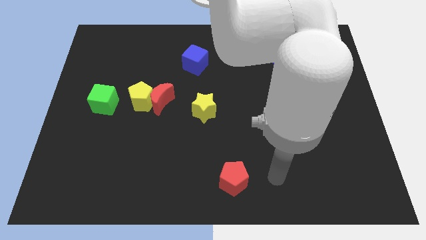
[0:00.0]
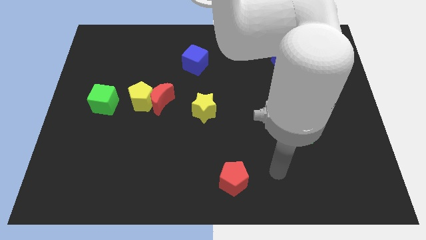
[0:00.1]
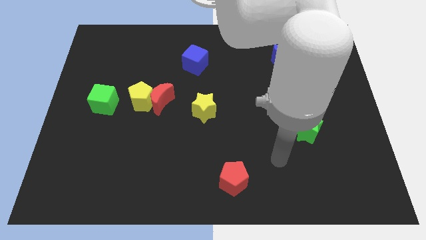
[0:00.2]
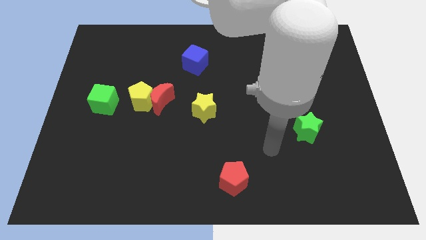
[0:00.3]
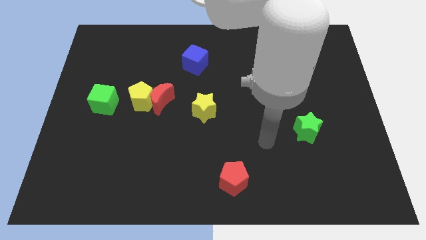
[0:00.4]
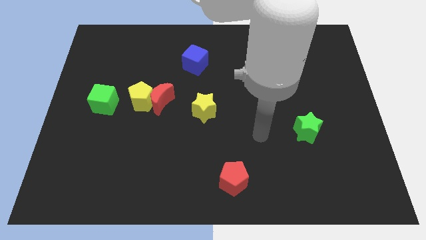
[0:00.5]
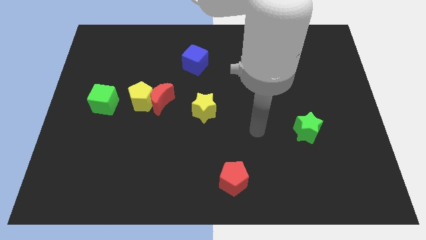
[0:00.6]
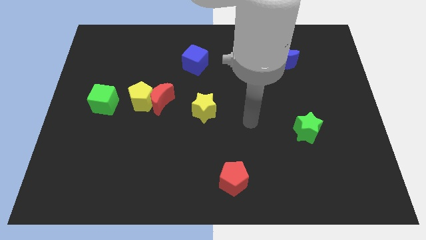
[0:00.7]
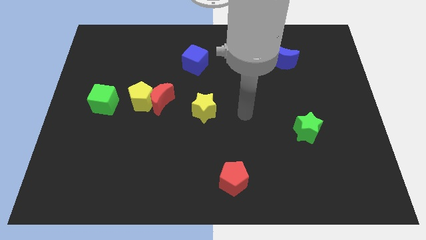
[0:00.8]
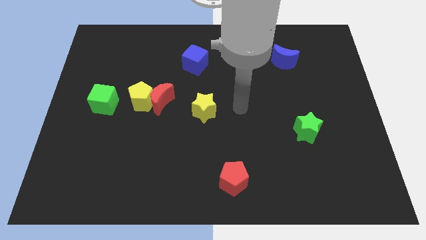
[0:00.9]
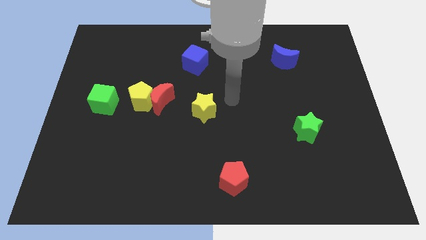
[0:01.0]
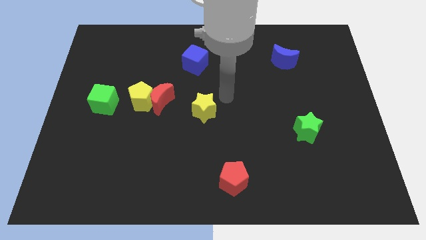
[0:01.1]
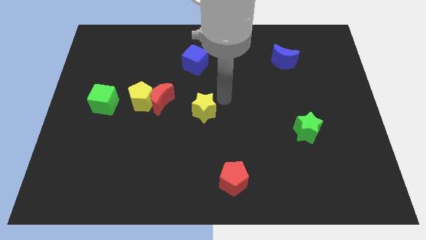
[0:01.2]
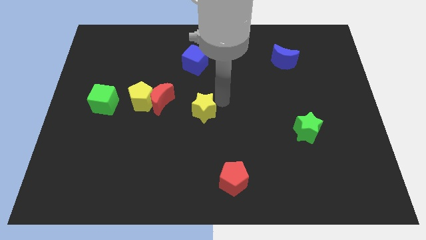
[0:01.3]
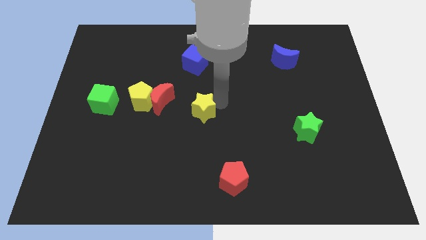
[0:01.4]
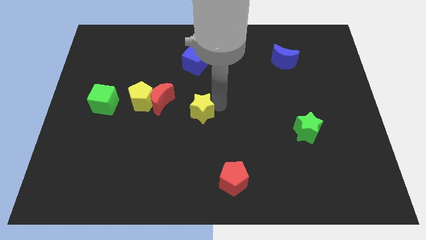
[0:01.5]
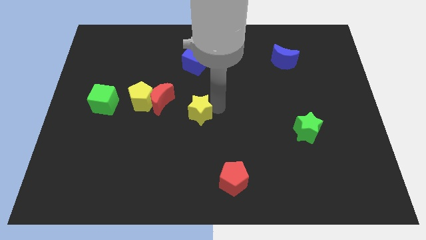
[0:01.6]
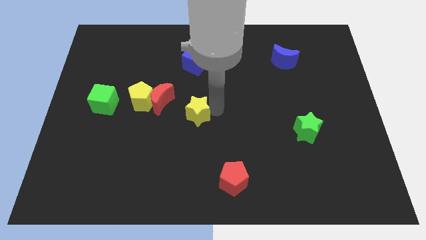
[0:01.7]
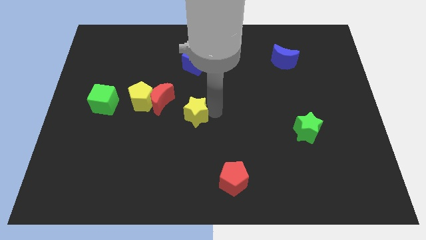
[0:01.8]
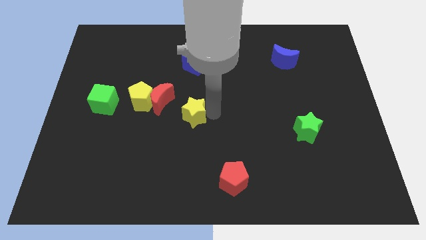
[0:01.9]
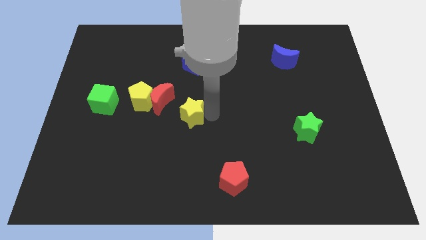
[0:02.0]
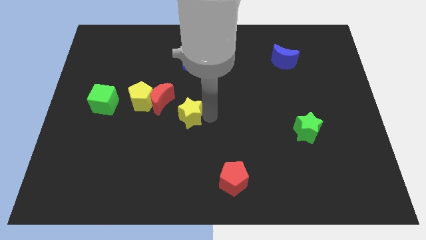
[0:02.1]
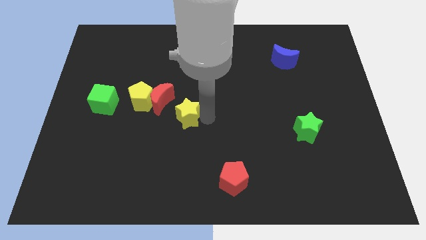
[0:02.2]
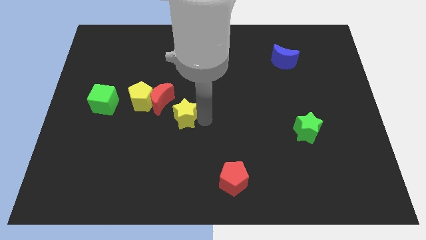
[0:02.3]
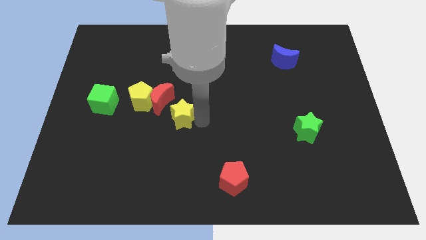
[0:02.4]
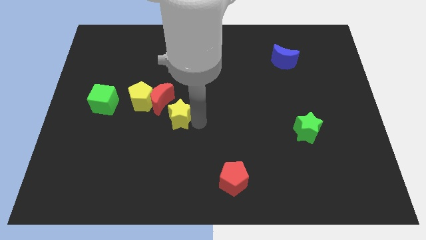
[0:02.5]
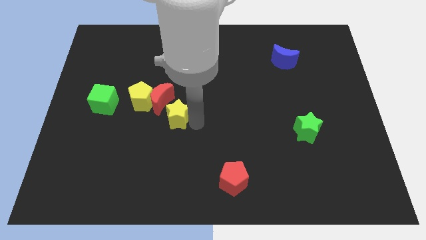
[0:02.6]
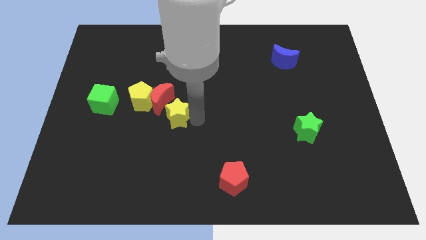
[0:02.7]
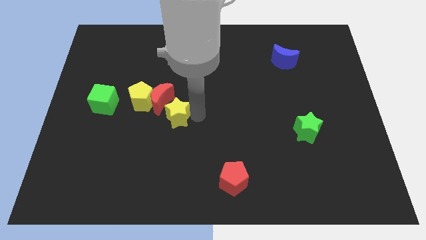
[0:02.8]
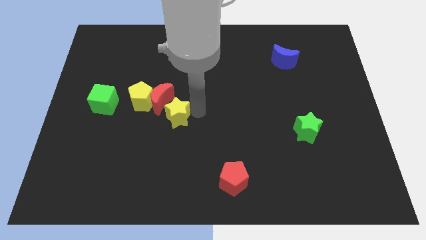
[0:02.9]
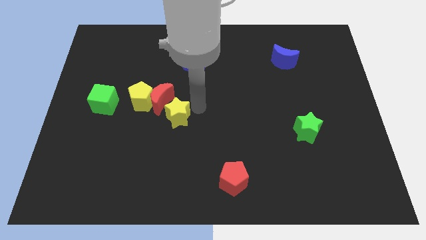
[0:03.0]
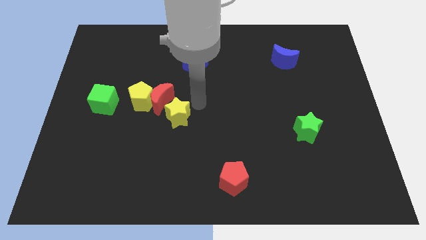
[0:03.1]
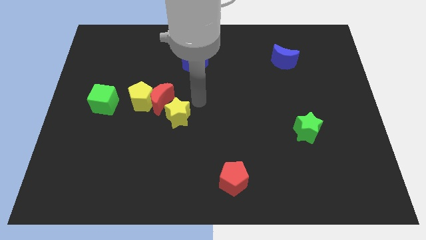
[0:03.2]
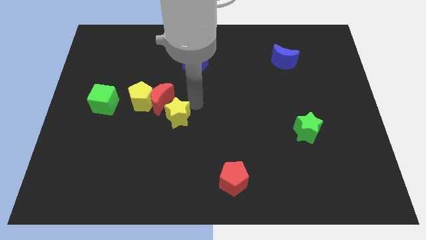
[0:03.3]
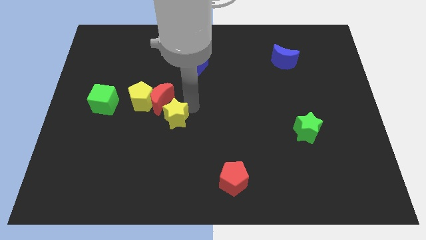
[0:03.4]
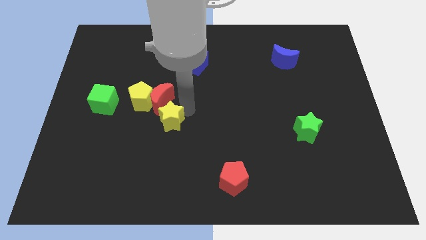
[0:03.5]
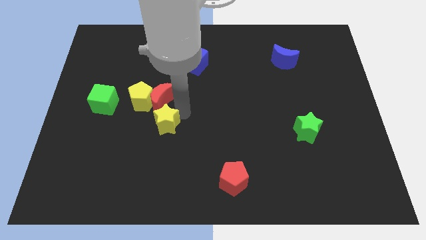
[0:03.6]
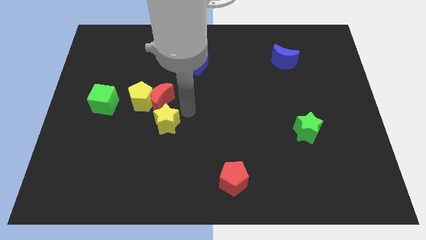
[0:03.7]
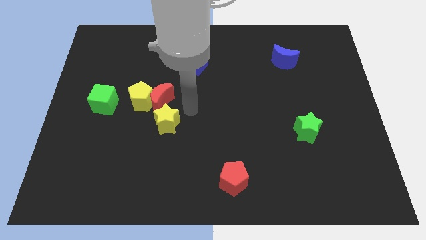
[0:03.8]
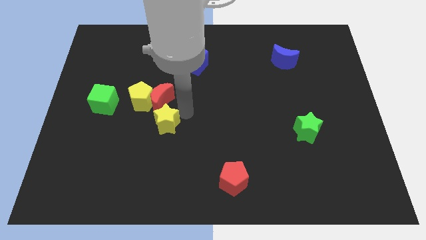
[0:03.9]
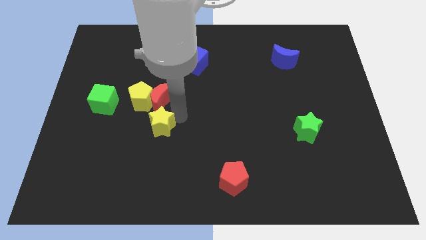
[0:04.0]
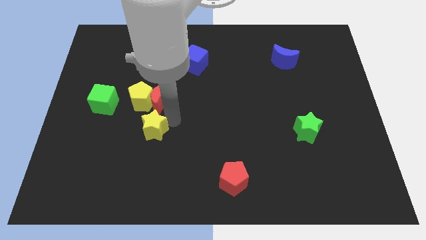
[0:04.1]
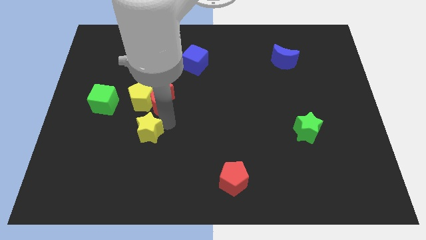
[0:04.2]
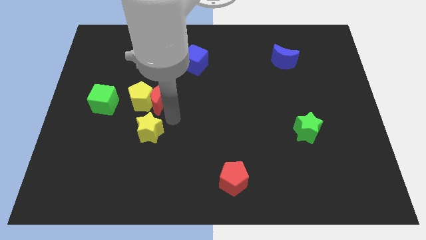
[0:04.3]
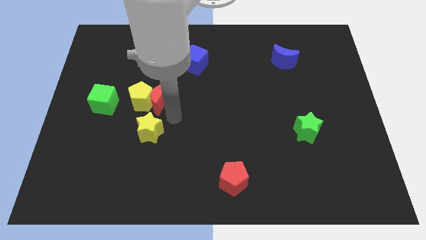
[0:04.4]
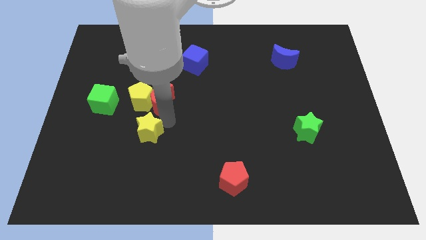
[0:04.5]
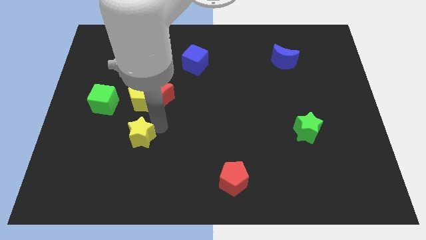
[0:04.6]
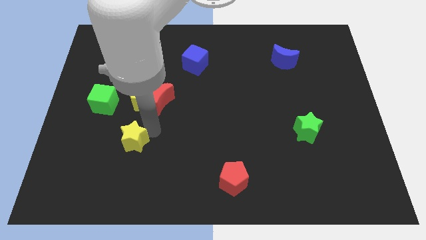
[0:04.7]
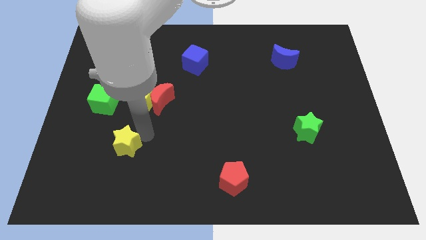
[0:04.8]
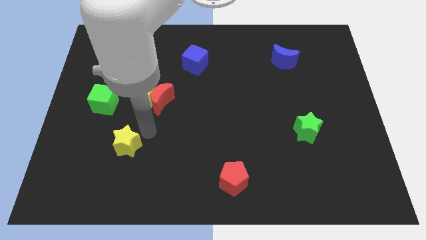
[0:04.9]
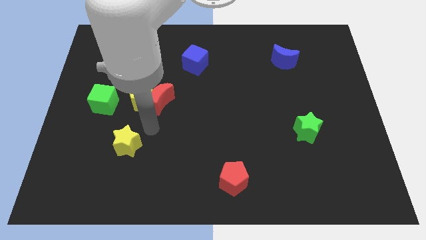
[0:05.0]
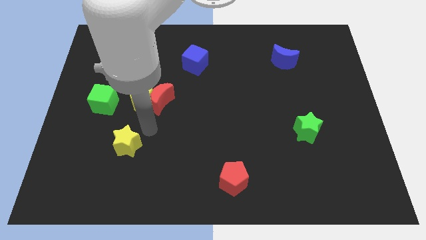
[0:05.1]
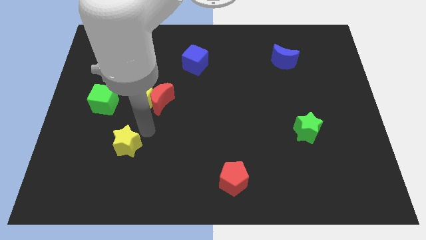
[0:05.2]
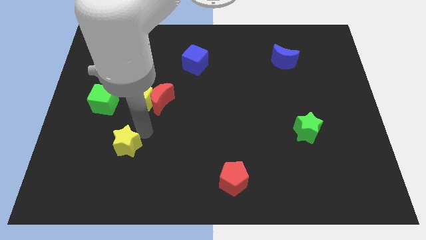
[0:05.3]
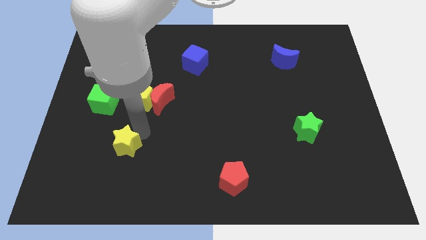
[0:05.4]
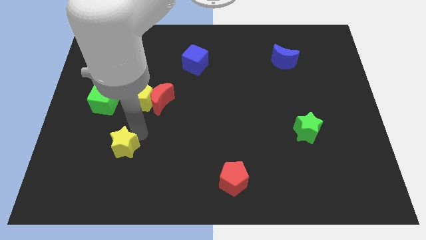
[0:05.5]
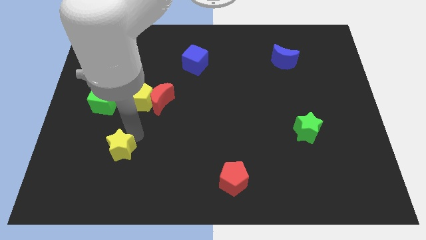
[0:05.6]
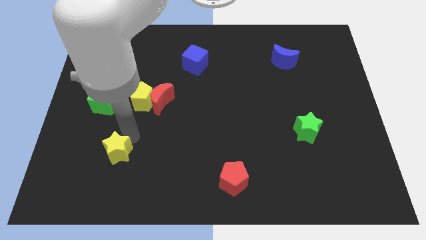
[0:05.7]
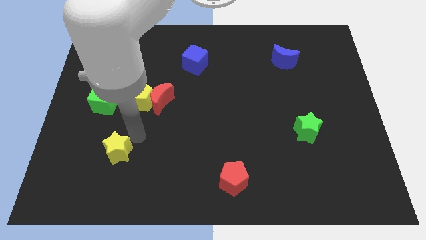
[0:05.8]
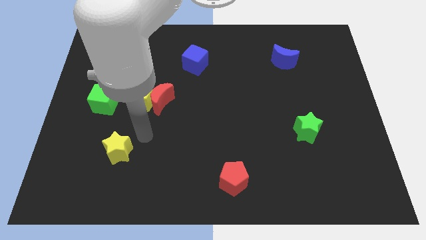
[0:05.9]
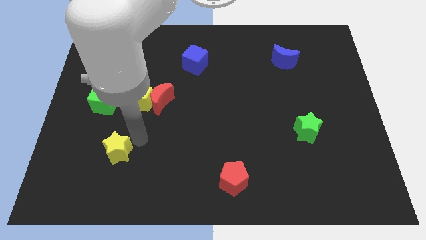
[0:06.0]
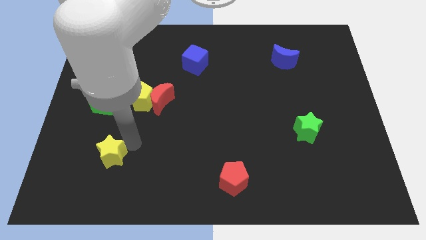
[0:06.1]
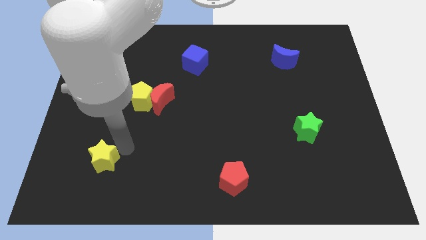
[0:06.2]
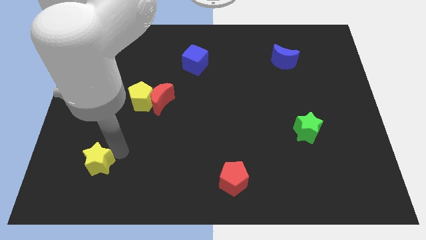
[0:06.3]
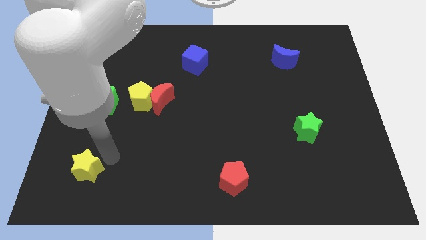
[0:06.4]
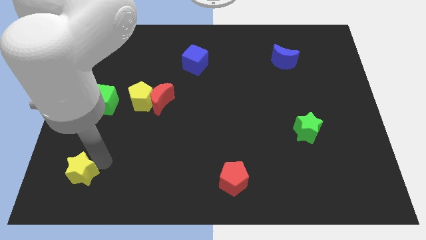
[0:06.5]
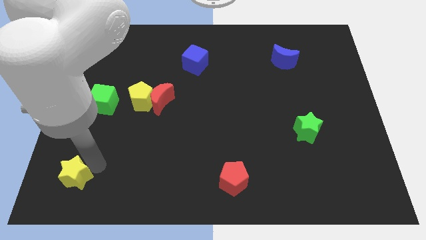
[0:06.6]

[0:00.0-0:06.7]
put the yellow star to the bottom left of the board
